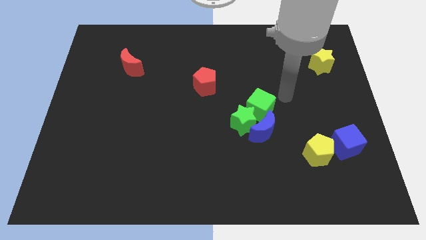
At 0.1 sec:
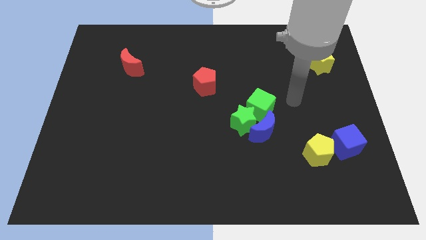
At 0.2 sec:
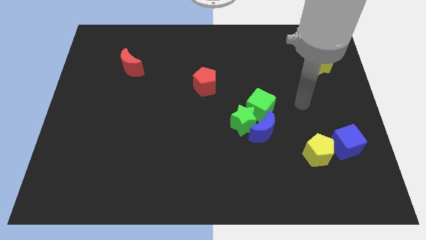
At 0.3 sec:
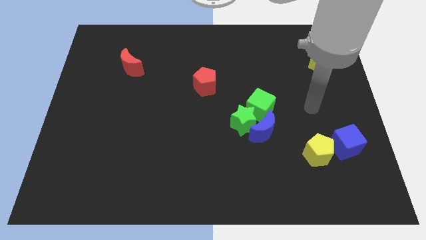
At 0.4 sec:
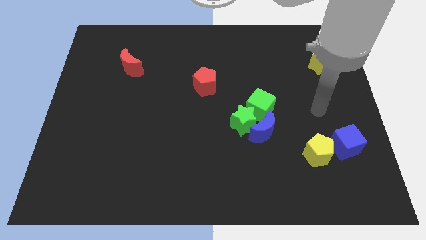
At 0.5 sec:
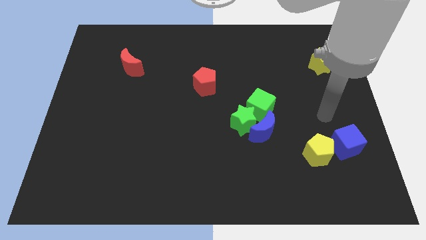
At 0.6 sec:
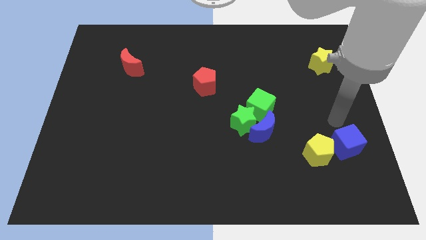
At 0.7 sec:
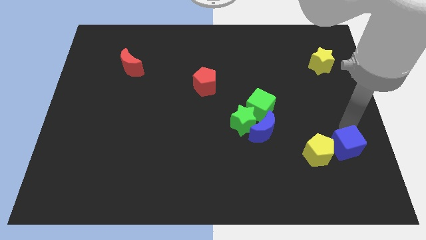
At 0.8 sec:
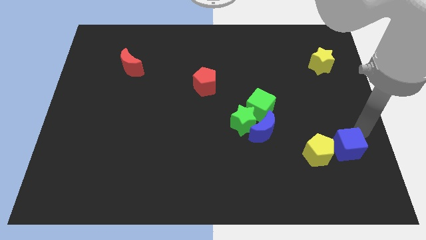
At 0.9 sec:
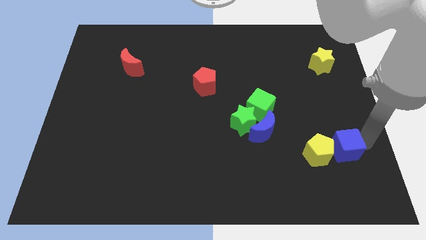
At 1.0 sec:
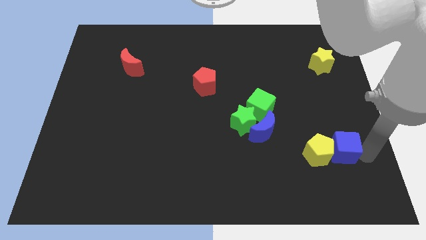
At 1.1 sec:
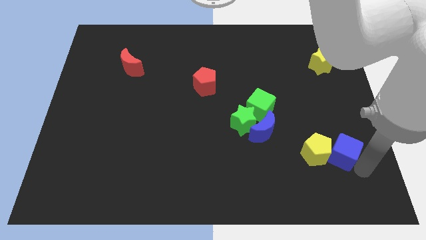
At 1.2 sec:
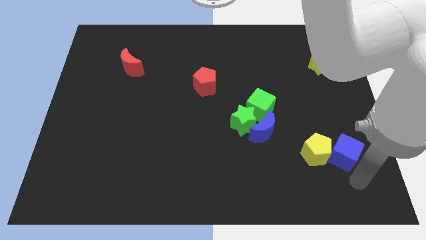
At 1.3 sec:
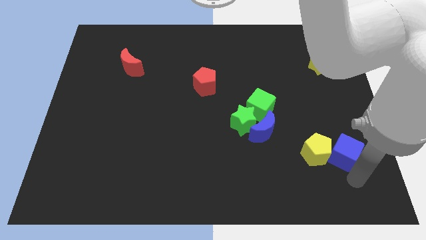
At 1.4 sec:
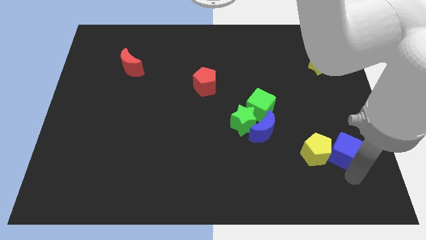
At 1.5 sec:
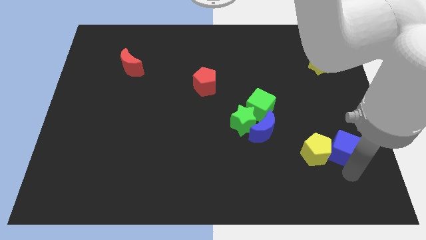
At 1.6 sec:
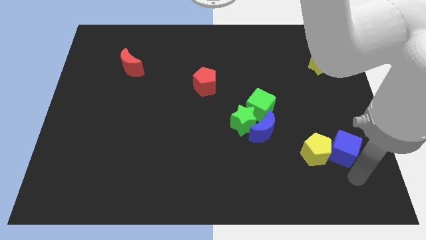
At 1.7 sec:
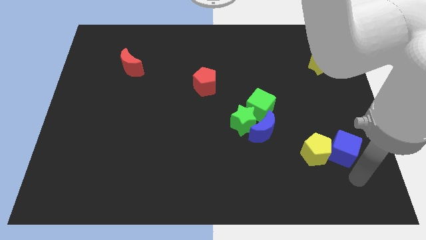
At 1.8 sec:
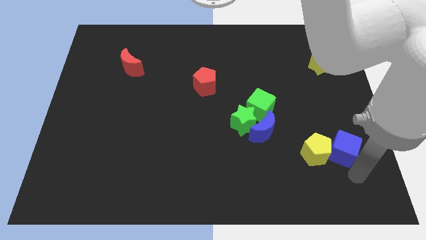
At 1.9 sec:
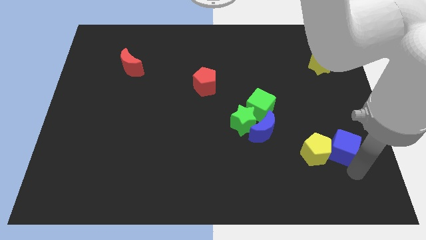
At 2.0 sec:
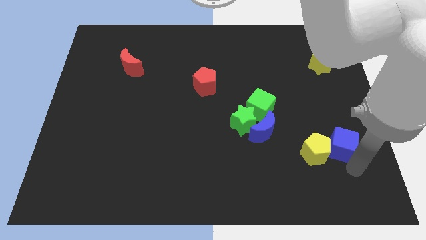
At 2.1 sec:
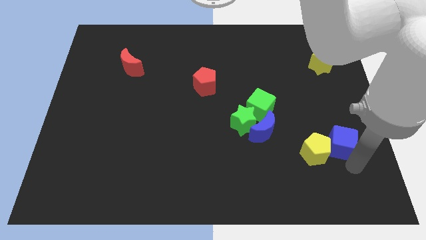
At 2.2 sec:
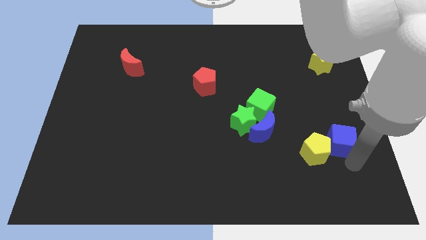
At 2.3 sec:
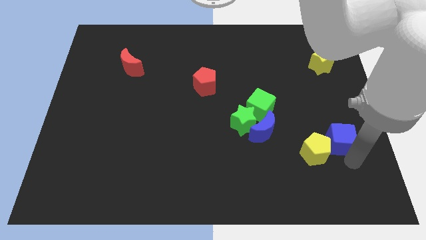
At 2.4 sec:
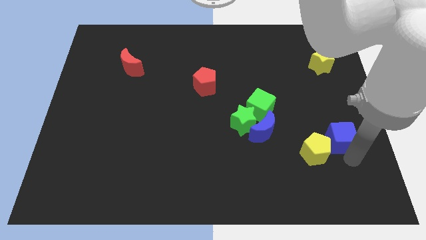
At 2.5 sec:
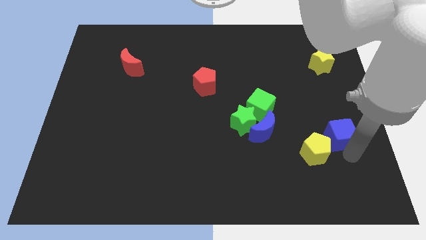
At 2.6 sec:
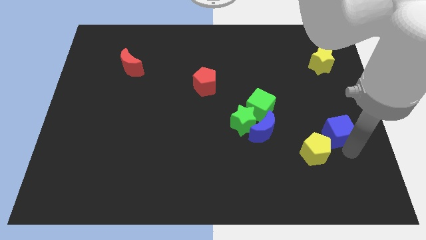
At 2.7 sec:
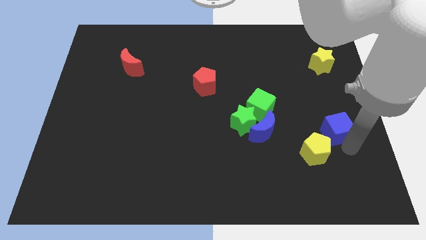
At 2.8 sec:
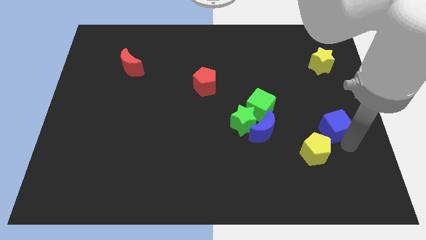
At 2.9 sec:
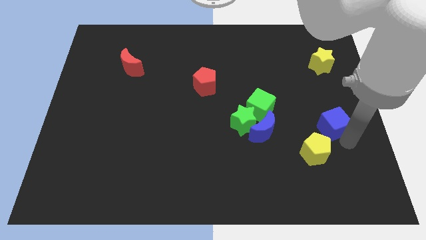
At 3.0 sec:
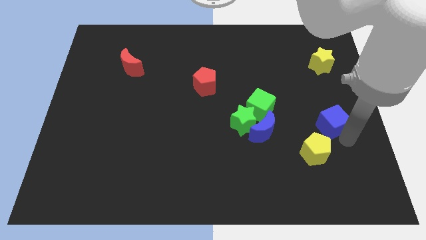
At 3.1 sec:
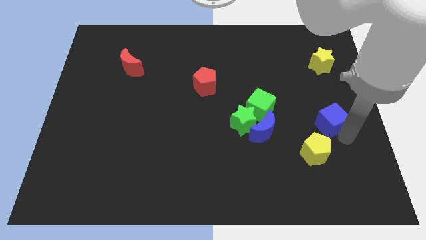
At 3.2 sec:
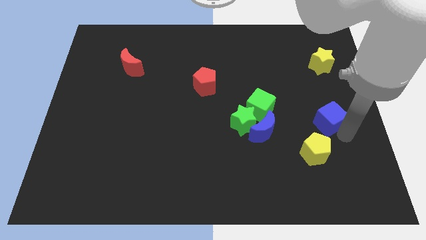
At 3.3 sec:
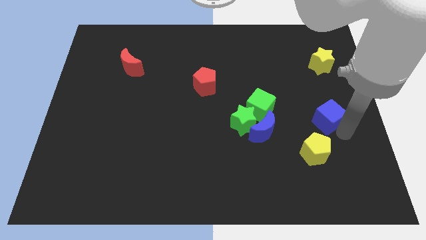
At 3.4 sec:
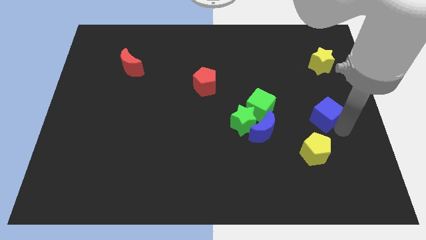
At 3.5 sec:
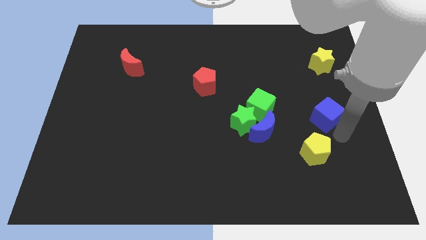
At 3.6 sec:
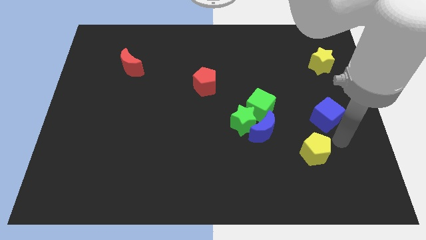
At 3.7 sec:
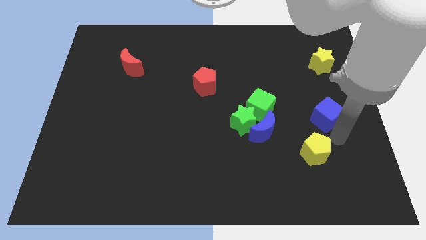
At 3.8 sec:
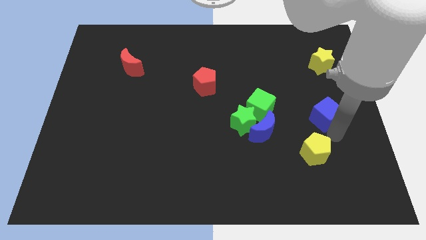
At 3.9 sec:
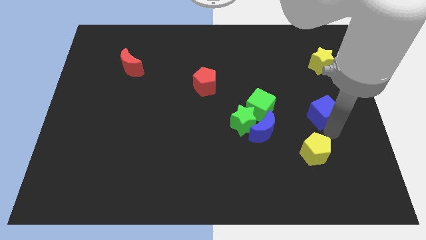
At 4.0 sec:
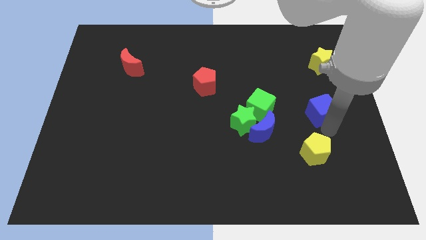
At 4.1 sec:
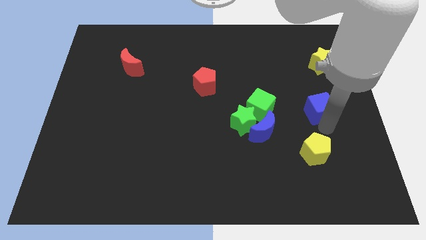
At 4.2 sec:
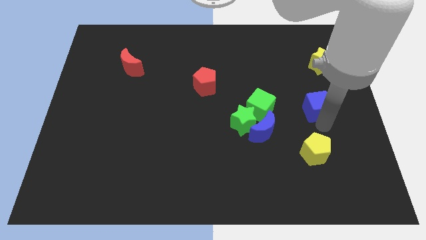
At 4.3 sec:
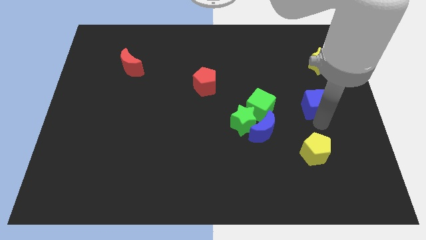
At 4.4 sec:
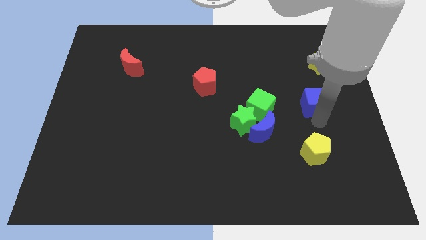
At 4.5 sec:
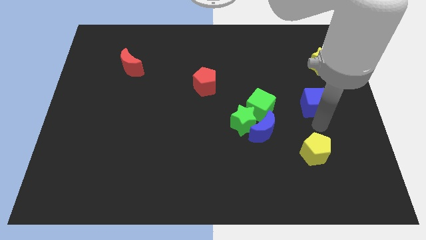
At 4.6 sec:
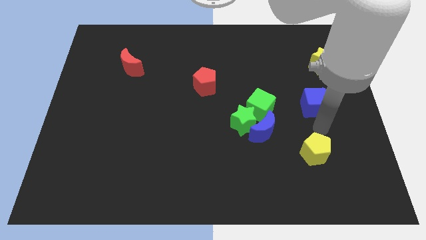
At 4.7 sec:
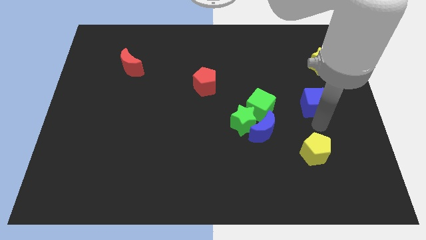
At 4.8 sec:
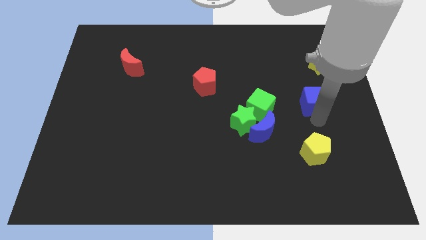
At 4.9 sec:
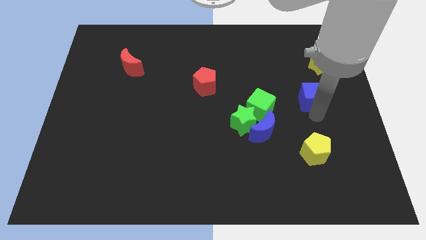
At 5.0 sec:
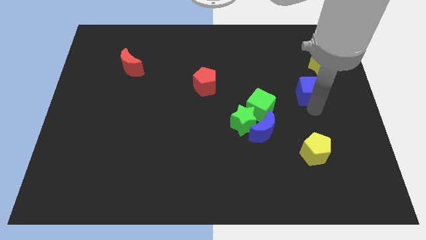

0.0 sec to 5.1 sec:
move the blue cube to the bottom left side of the yellow star

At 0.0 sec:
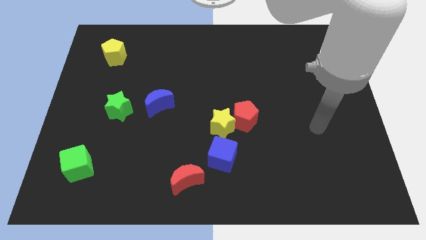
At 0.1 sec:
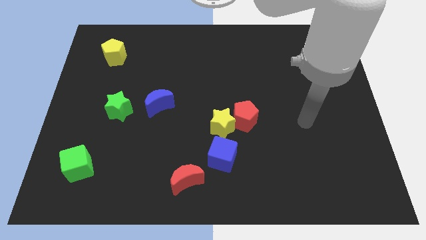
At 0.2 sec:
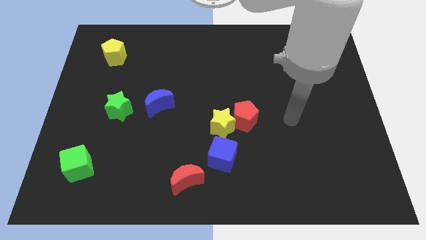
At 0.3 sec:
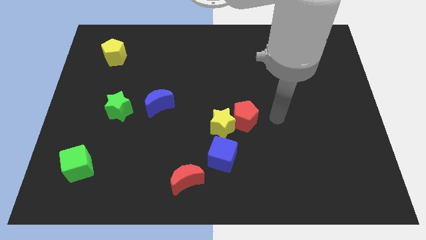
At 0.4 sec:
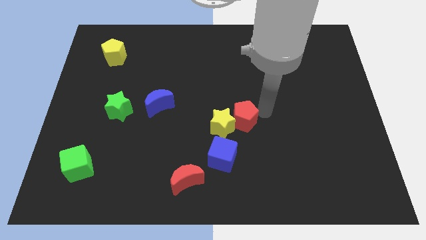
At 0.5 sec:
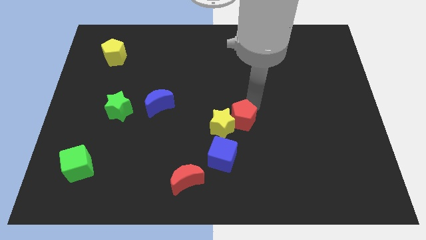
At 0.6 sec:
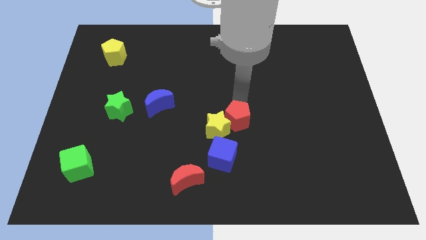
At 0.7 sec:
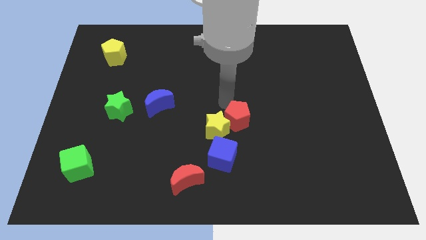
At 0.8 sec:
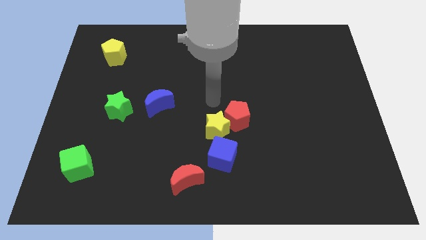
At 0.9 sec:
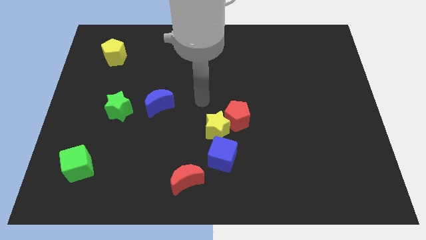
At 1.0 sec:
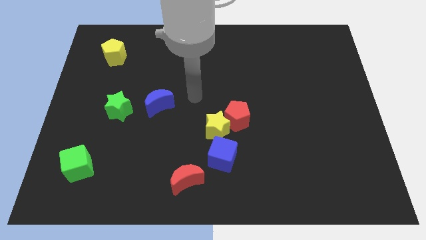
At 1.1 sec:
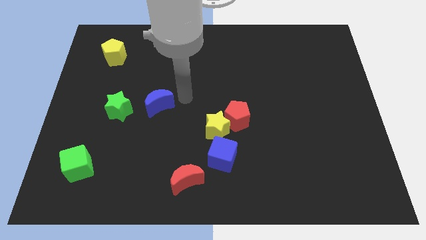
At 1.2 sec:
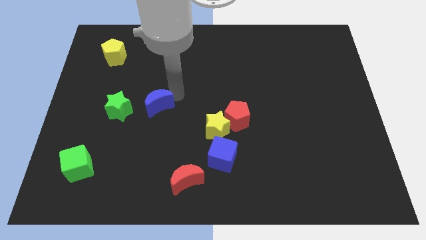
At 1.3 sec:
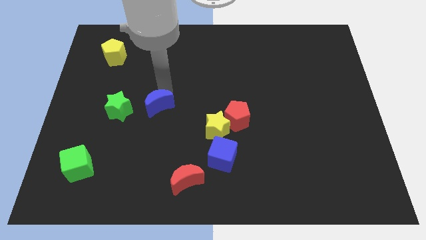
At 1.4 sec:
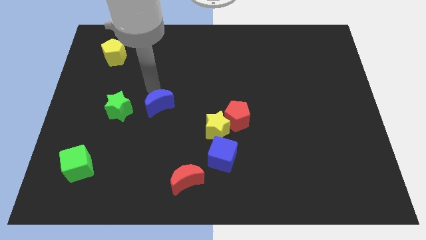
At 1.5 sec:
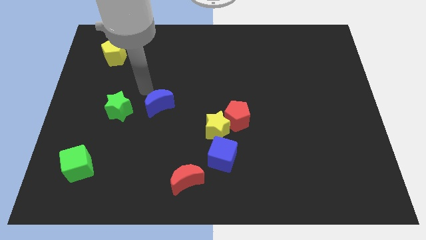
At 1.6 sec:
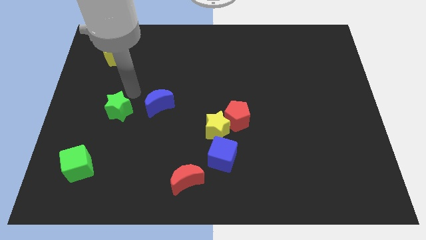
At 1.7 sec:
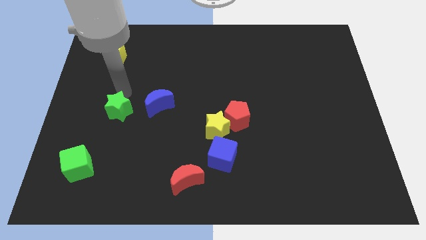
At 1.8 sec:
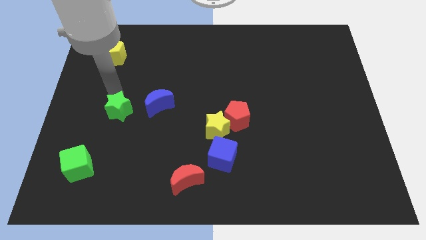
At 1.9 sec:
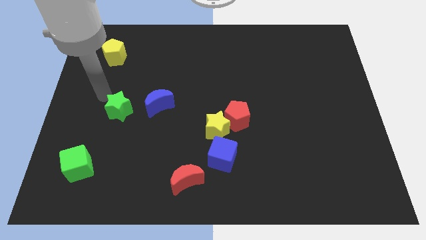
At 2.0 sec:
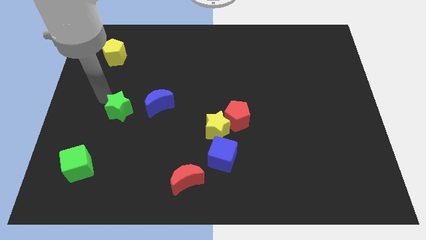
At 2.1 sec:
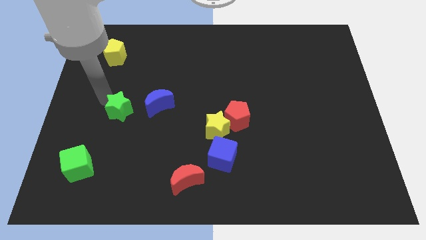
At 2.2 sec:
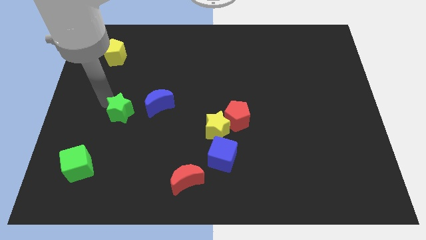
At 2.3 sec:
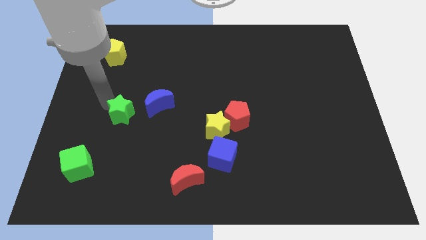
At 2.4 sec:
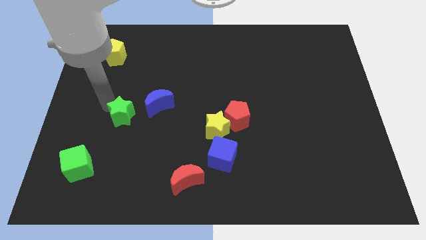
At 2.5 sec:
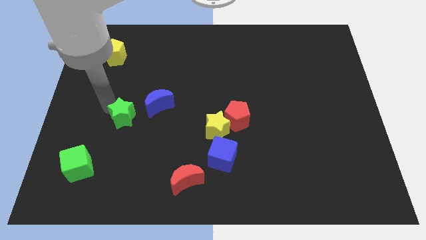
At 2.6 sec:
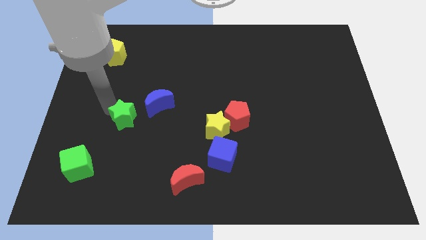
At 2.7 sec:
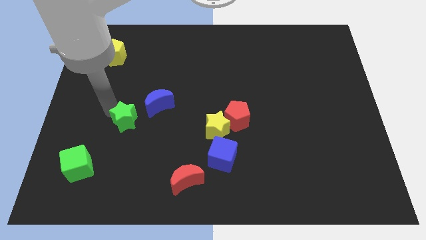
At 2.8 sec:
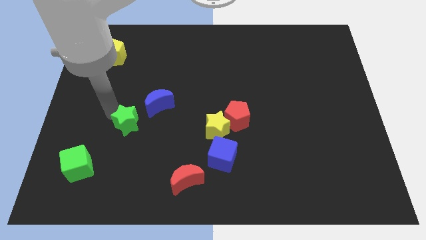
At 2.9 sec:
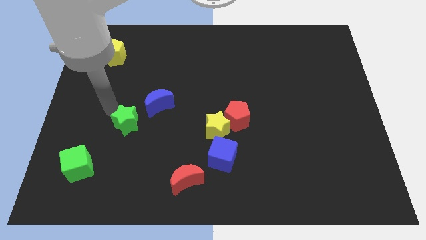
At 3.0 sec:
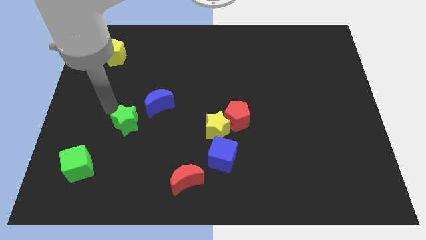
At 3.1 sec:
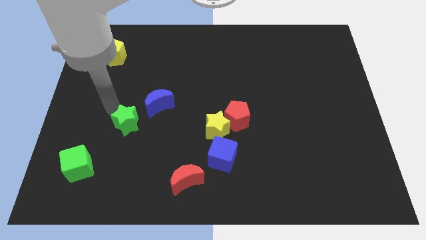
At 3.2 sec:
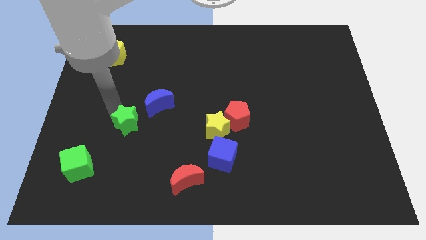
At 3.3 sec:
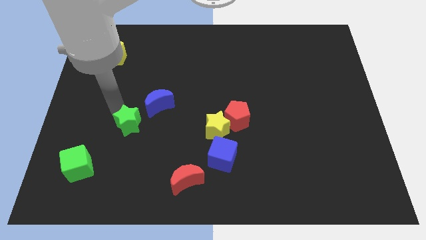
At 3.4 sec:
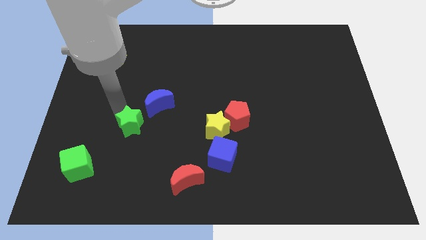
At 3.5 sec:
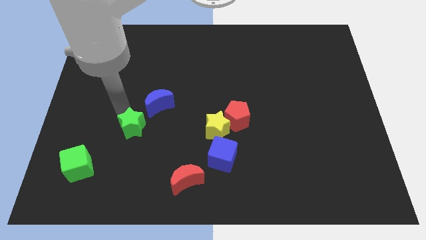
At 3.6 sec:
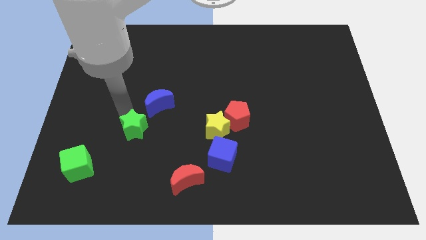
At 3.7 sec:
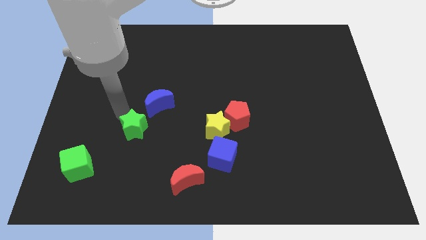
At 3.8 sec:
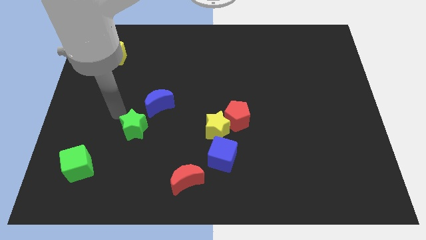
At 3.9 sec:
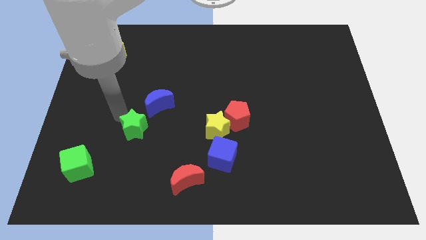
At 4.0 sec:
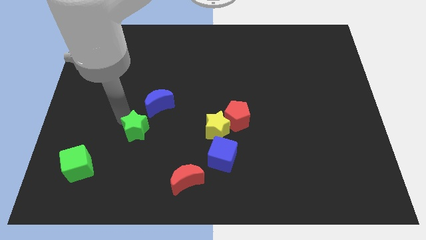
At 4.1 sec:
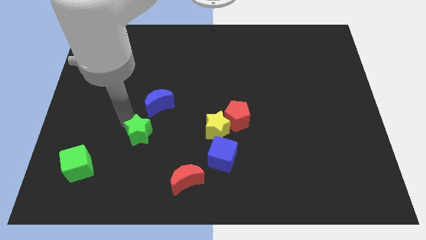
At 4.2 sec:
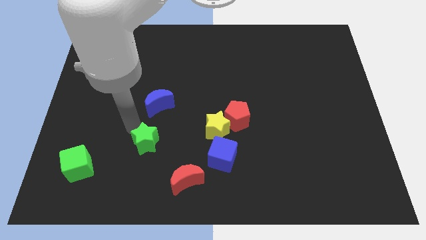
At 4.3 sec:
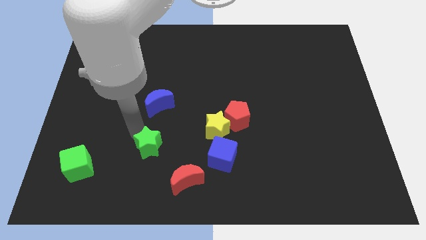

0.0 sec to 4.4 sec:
push the green star to the left side of the blue cube
